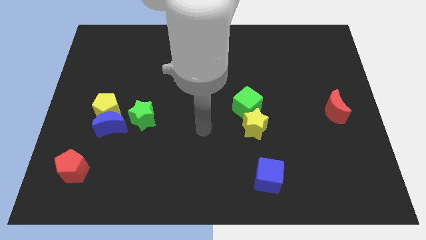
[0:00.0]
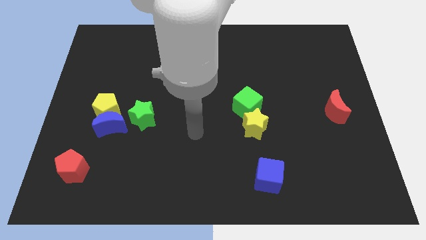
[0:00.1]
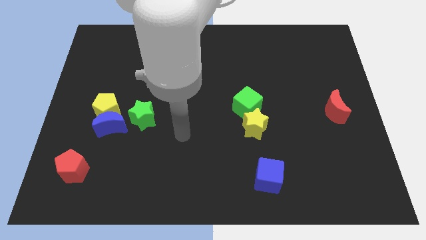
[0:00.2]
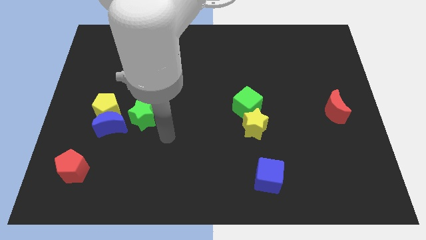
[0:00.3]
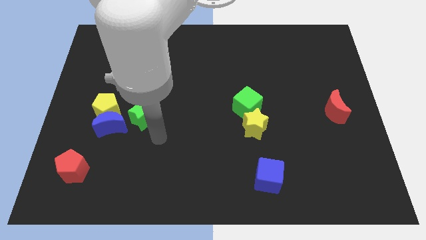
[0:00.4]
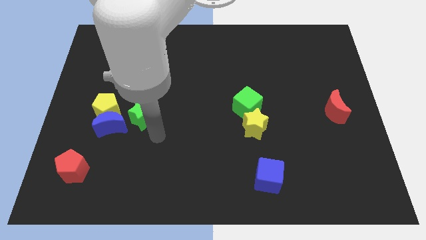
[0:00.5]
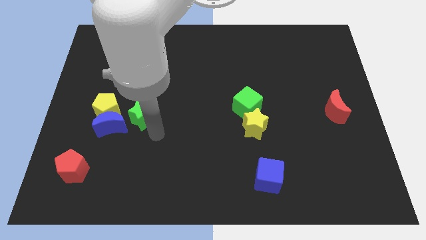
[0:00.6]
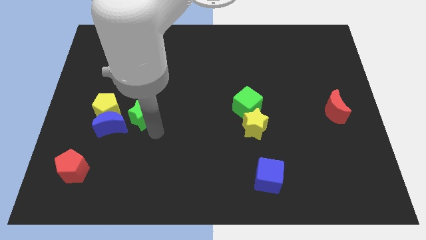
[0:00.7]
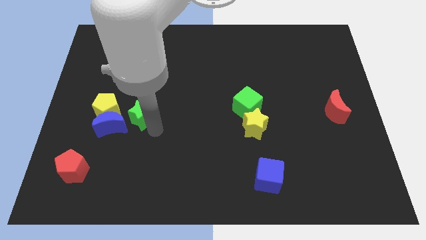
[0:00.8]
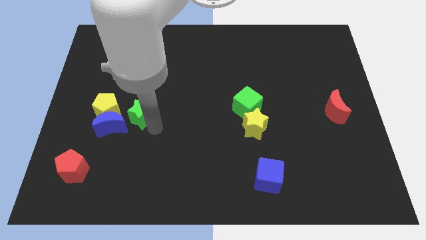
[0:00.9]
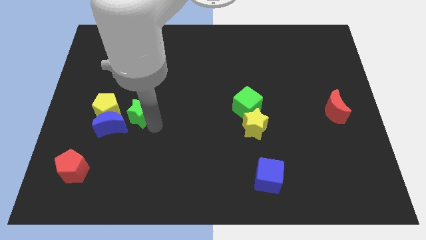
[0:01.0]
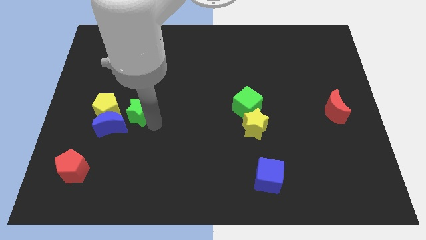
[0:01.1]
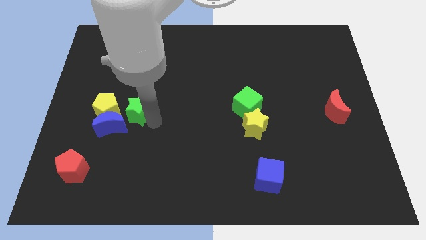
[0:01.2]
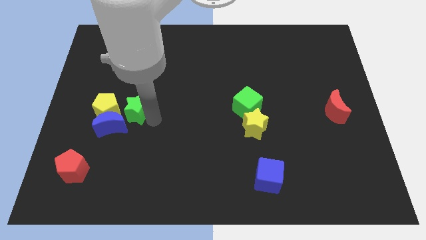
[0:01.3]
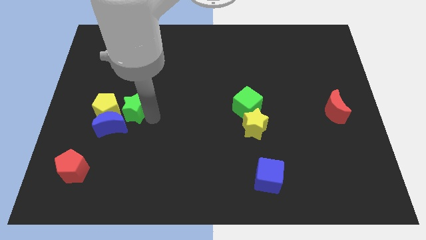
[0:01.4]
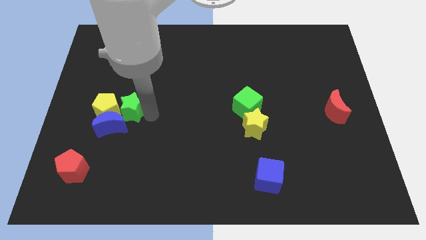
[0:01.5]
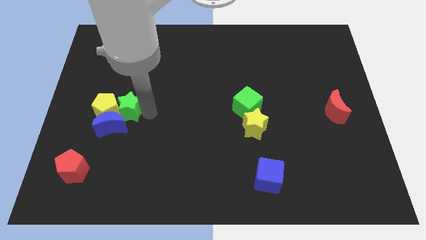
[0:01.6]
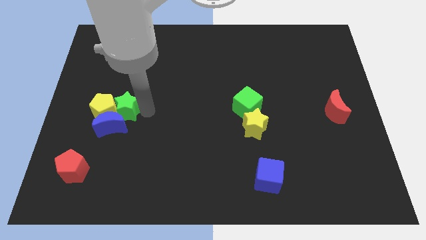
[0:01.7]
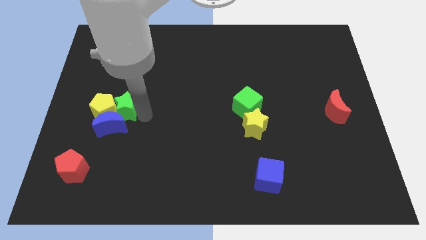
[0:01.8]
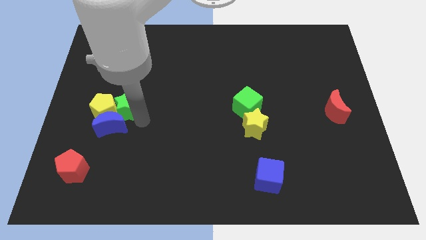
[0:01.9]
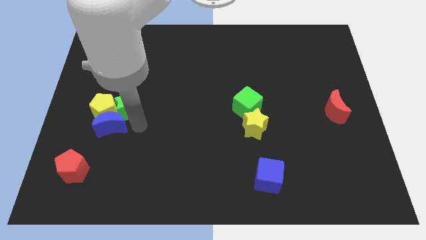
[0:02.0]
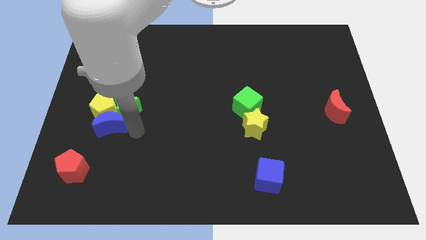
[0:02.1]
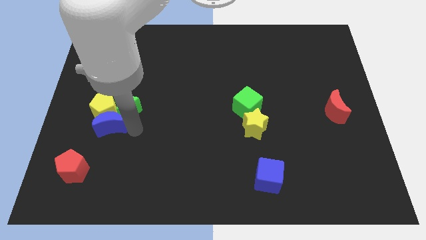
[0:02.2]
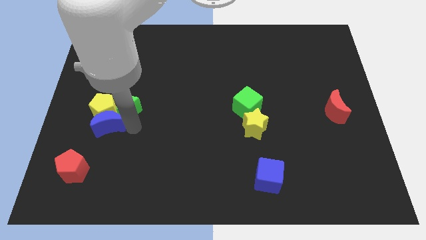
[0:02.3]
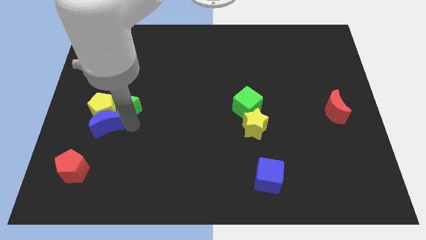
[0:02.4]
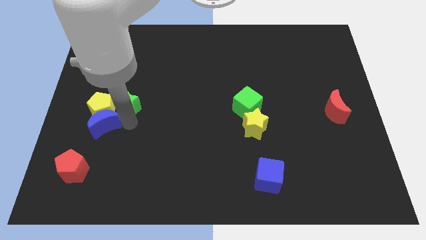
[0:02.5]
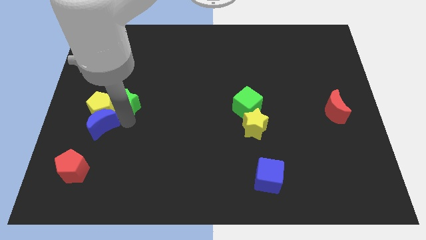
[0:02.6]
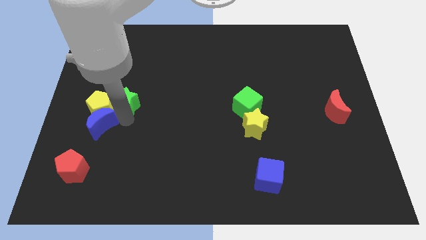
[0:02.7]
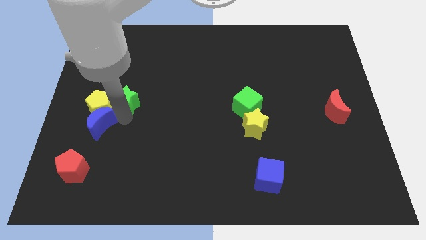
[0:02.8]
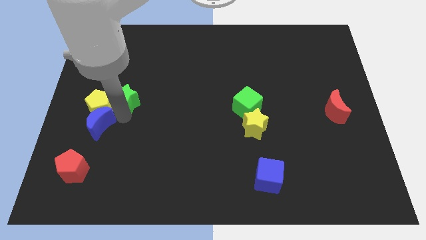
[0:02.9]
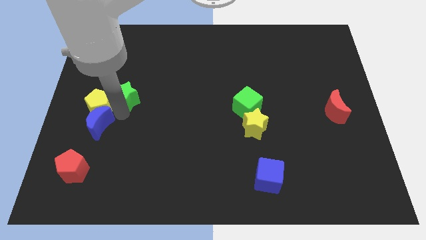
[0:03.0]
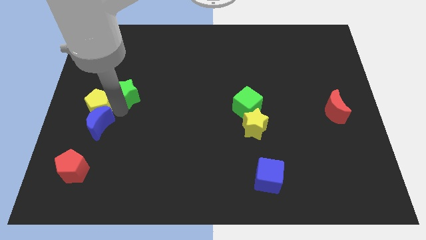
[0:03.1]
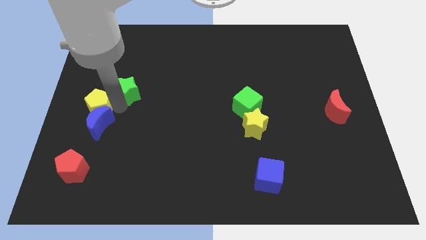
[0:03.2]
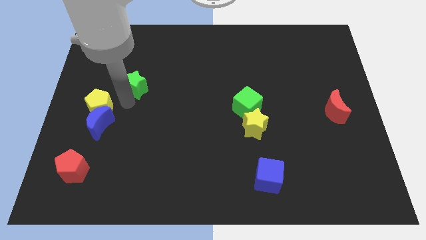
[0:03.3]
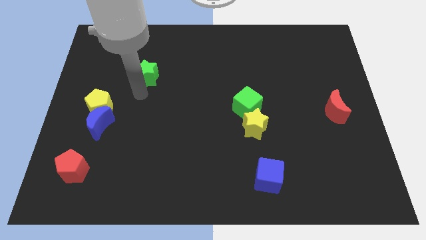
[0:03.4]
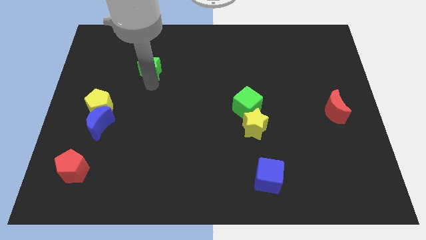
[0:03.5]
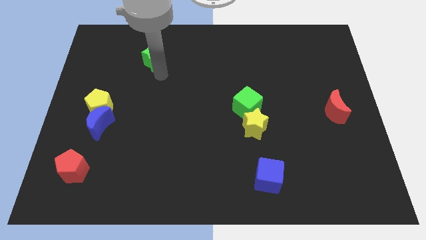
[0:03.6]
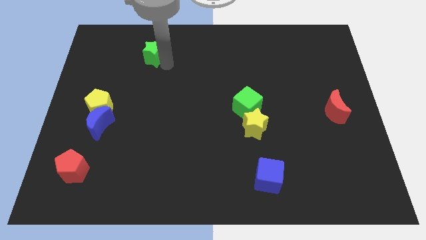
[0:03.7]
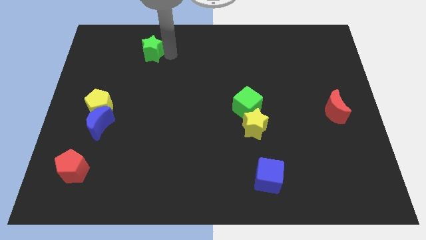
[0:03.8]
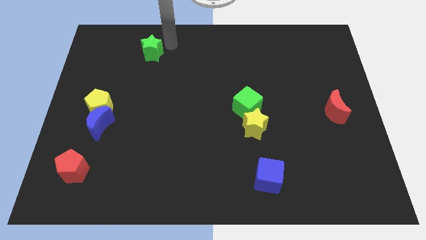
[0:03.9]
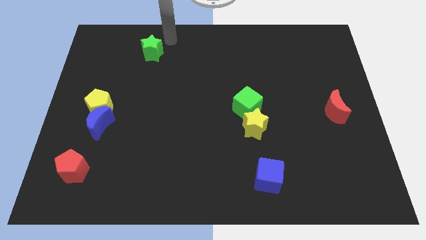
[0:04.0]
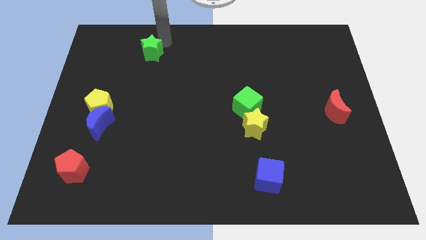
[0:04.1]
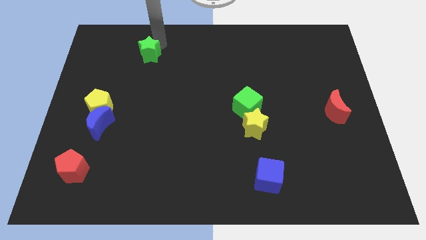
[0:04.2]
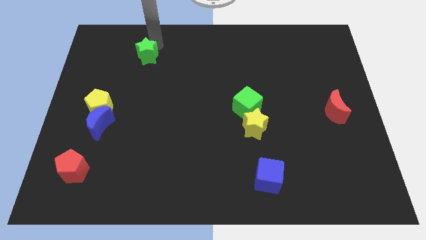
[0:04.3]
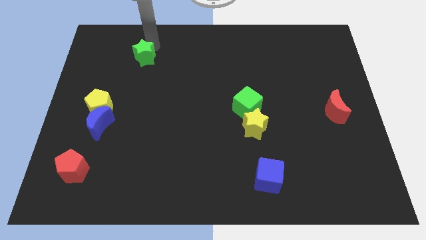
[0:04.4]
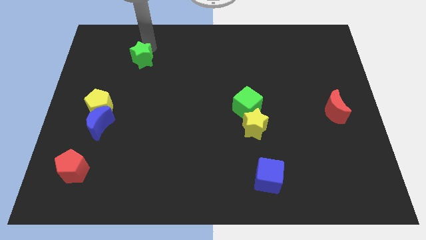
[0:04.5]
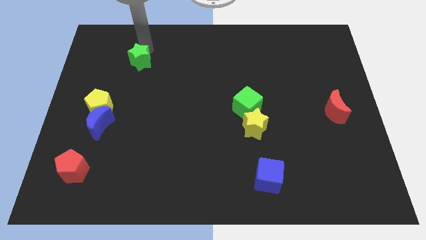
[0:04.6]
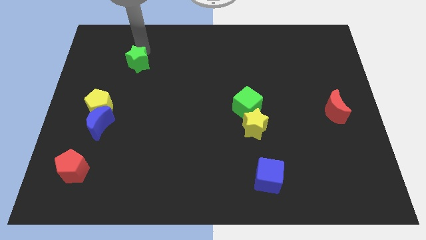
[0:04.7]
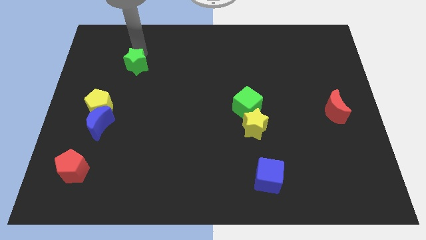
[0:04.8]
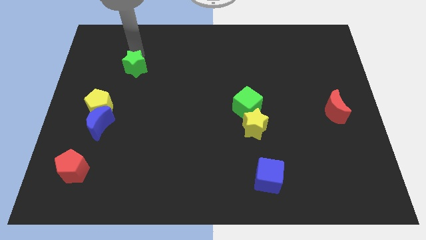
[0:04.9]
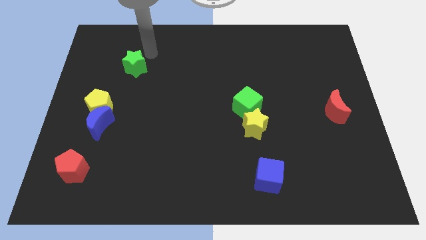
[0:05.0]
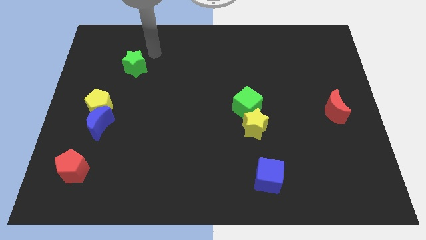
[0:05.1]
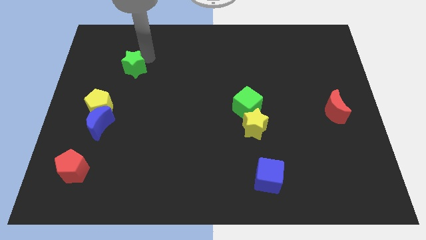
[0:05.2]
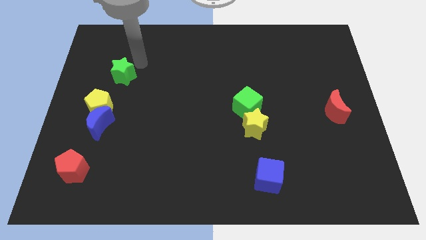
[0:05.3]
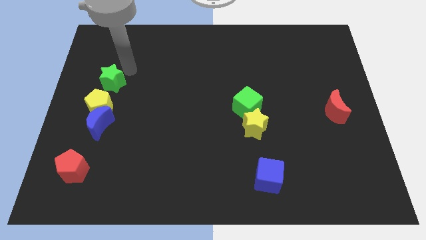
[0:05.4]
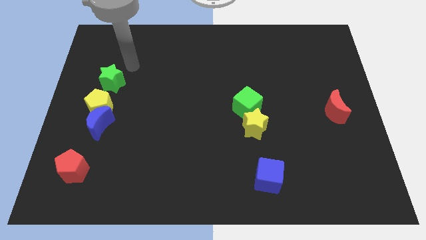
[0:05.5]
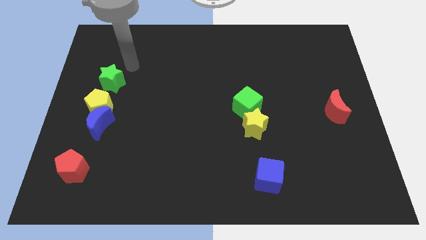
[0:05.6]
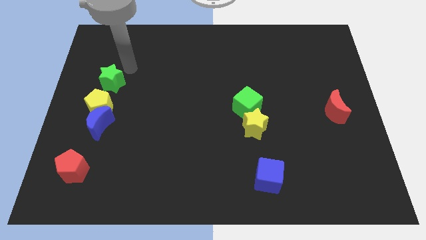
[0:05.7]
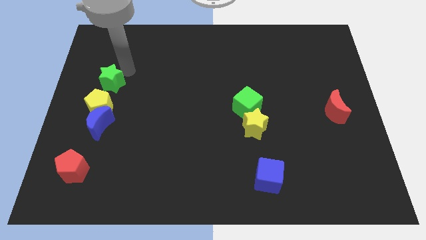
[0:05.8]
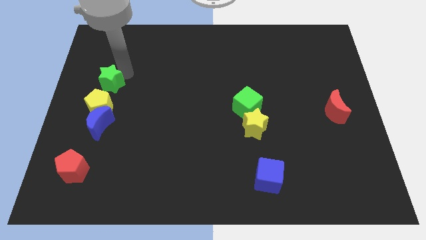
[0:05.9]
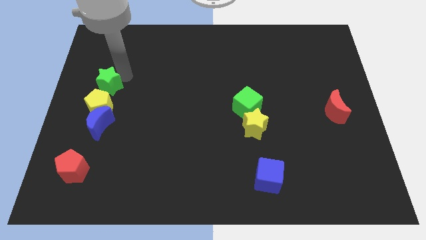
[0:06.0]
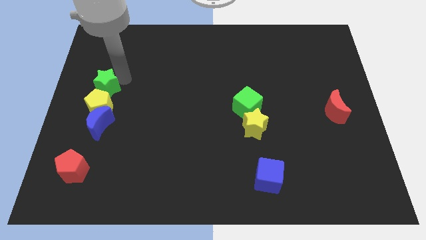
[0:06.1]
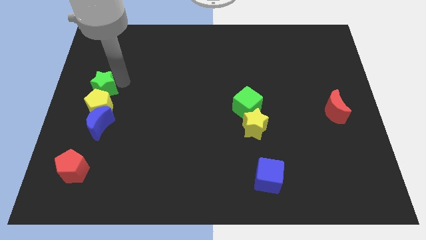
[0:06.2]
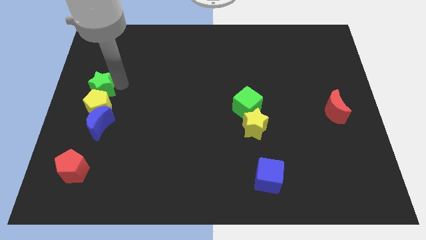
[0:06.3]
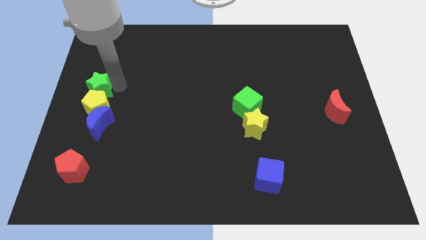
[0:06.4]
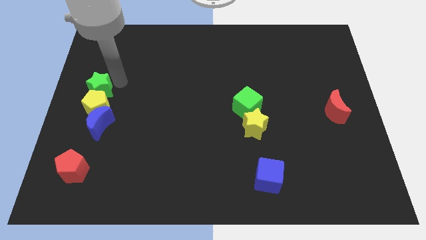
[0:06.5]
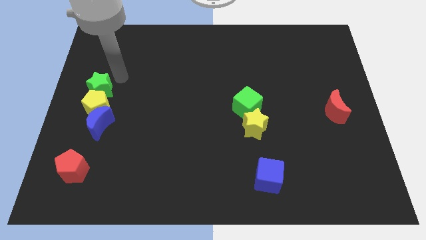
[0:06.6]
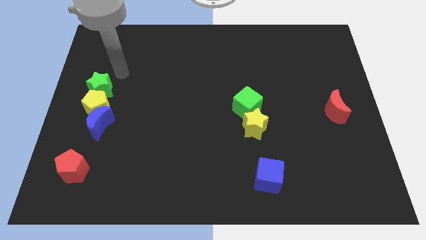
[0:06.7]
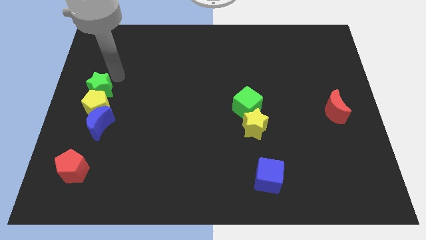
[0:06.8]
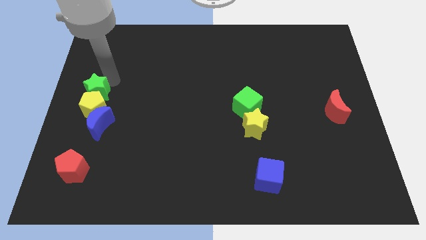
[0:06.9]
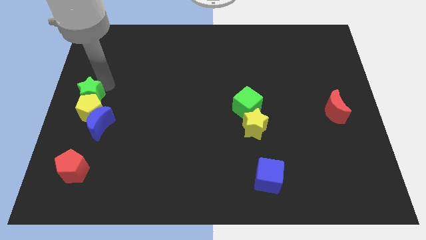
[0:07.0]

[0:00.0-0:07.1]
push the green star to the top left of the blue moon

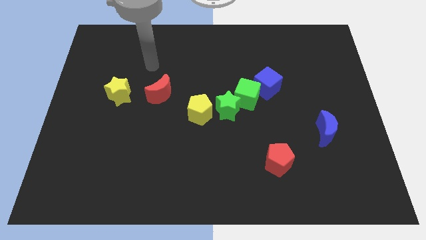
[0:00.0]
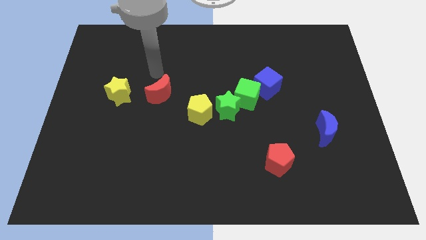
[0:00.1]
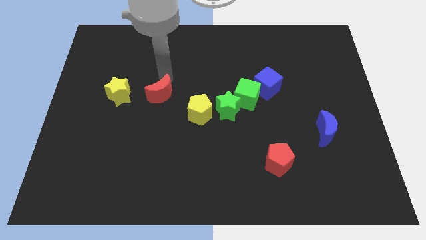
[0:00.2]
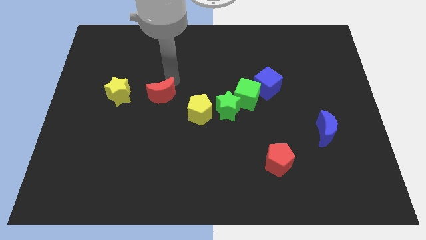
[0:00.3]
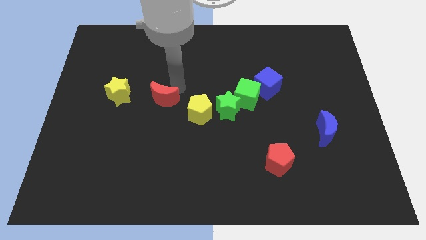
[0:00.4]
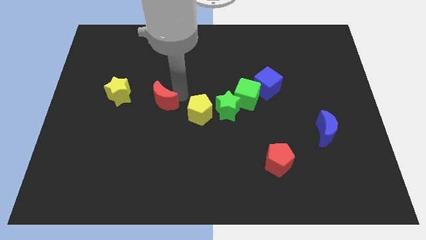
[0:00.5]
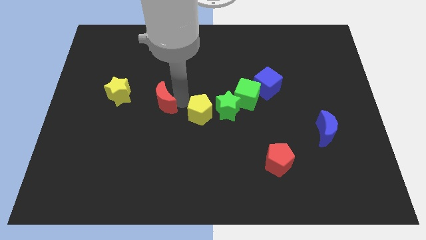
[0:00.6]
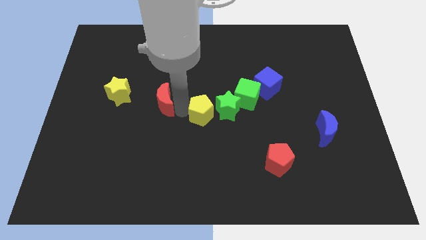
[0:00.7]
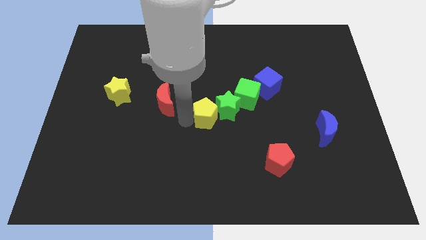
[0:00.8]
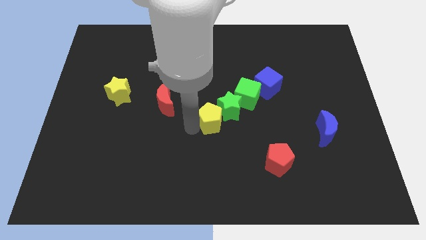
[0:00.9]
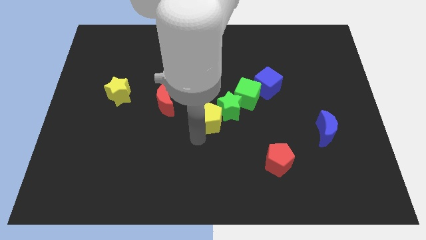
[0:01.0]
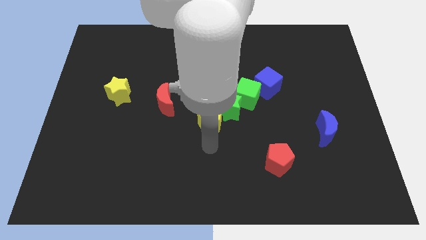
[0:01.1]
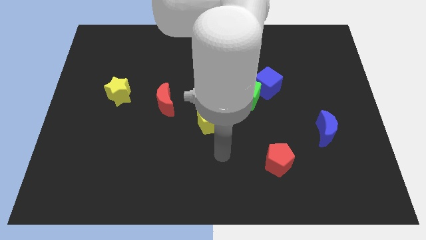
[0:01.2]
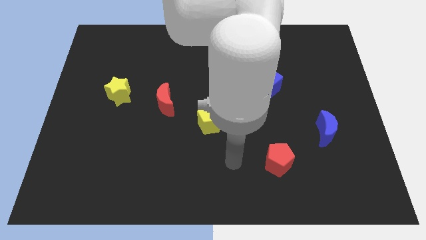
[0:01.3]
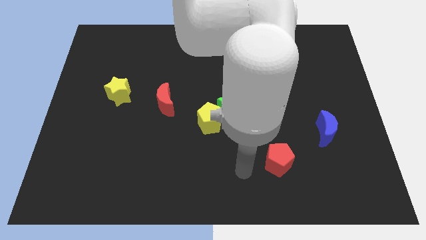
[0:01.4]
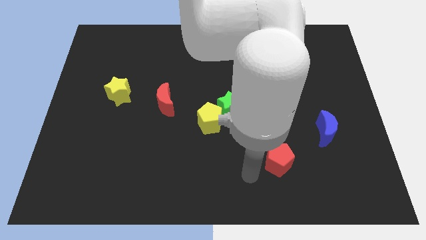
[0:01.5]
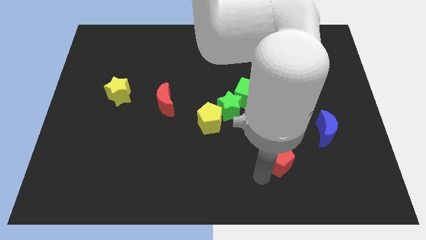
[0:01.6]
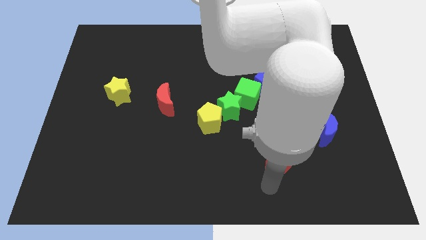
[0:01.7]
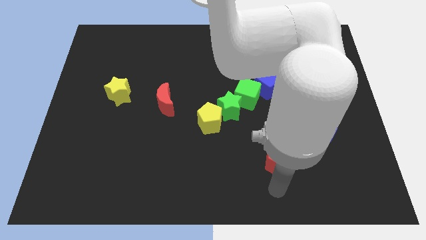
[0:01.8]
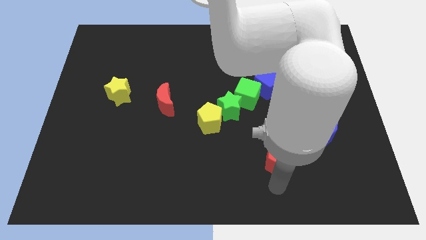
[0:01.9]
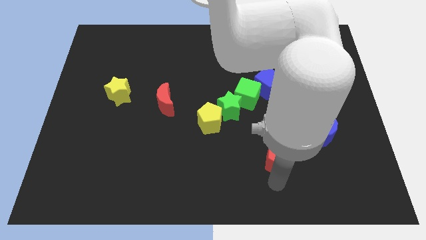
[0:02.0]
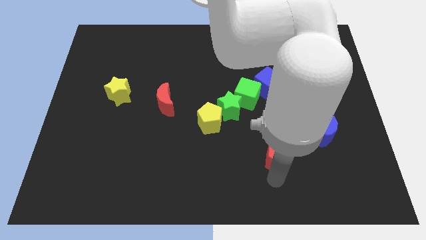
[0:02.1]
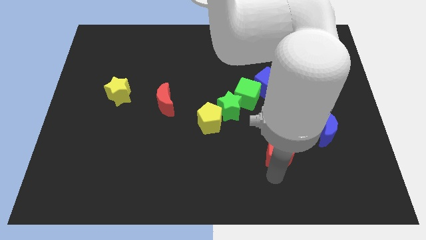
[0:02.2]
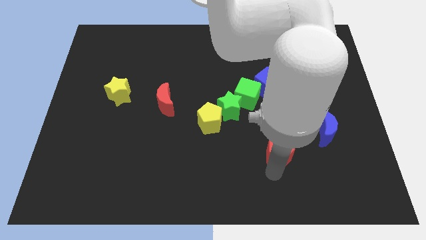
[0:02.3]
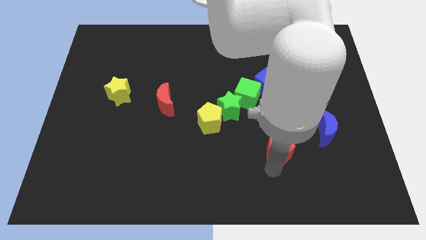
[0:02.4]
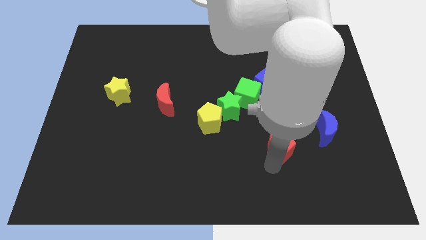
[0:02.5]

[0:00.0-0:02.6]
move the red pentagon left of the blue moon
